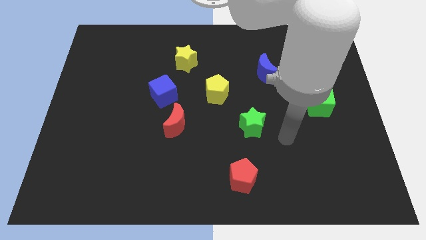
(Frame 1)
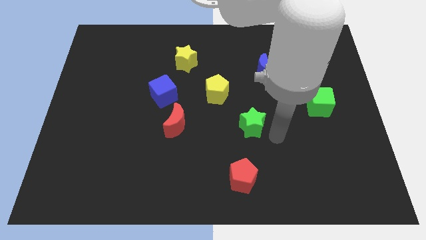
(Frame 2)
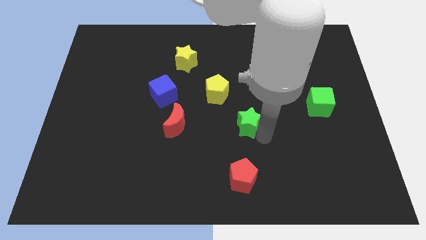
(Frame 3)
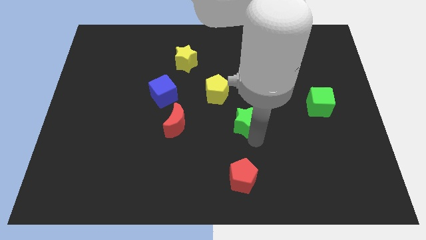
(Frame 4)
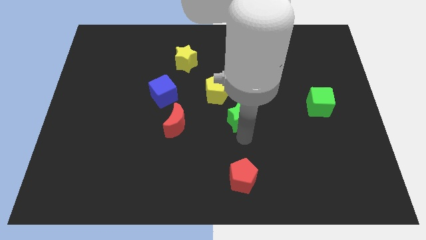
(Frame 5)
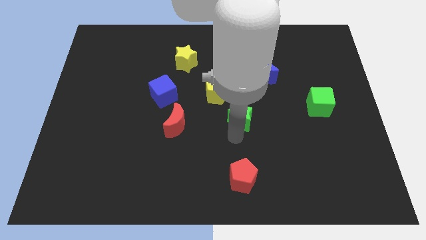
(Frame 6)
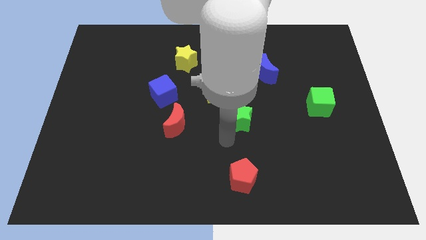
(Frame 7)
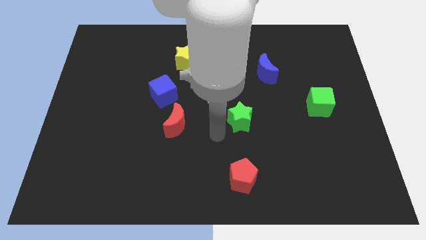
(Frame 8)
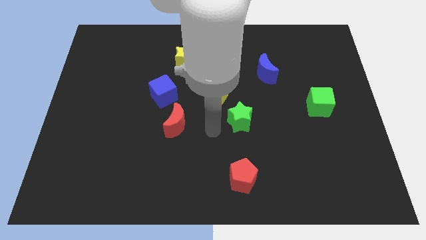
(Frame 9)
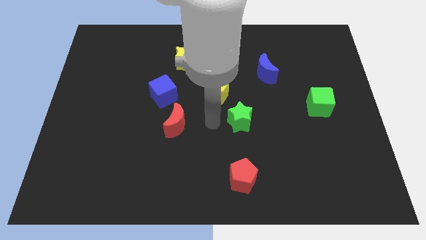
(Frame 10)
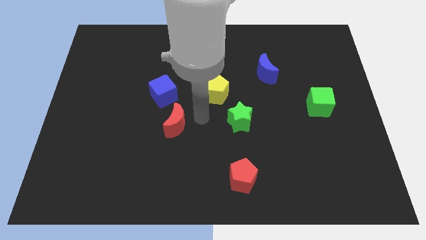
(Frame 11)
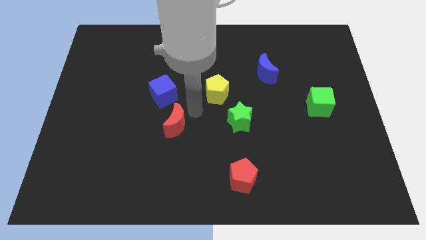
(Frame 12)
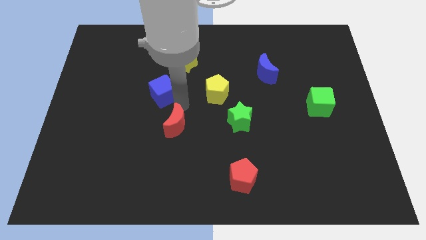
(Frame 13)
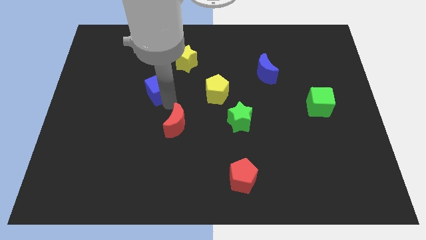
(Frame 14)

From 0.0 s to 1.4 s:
pull the red moon apart from the blue cube

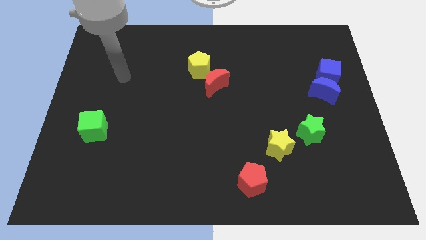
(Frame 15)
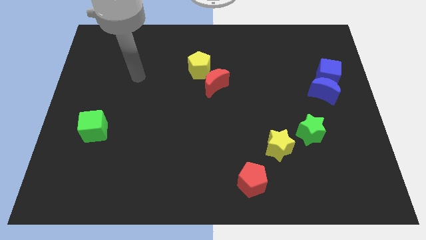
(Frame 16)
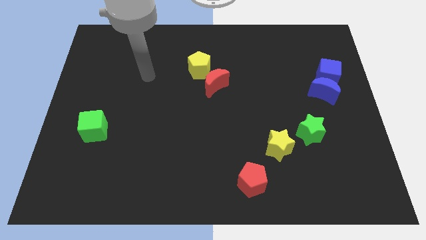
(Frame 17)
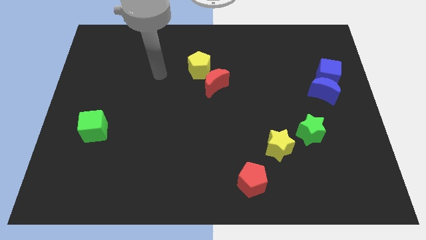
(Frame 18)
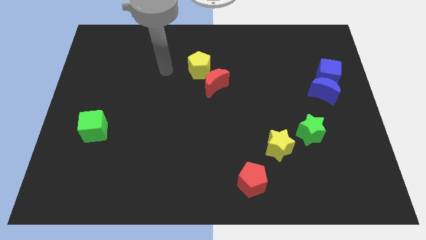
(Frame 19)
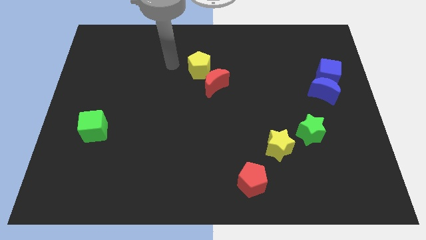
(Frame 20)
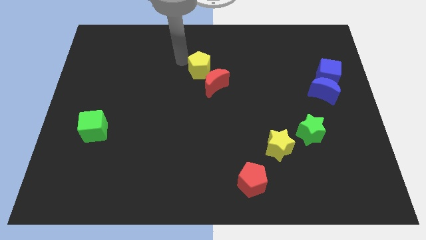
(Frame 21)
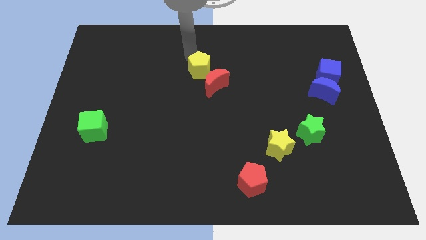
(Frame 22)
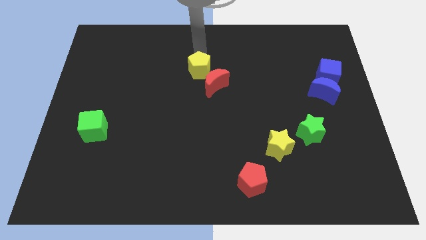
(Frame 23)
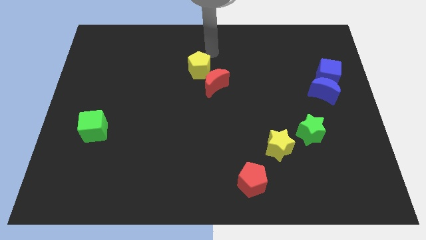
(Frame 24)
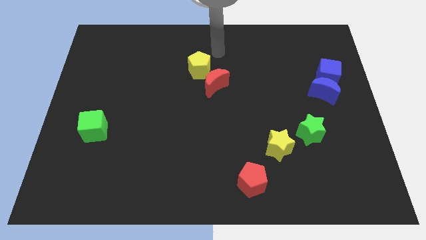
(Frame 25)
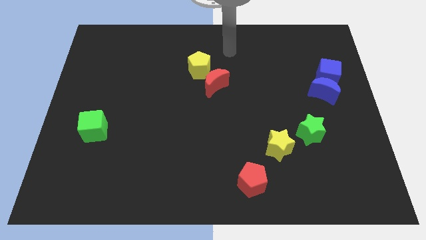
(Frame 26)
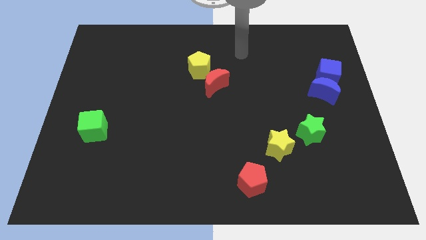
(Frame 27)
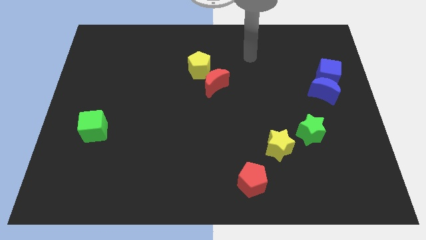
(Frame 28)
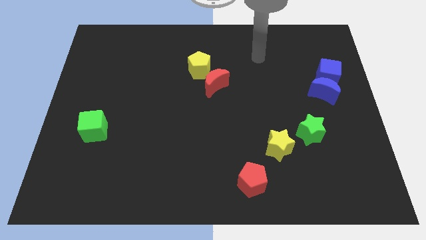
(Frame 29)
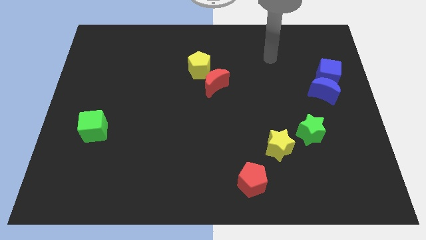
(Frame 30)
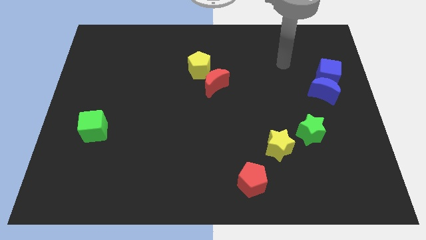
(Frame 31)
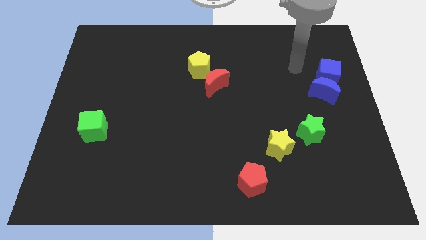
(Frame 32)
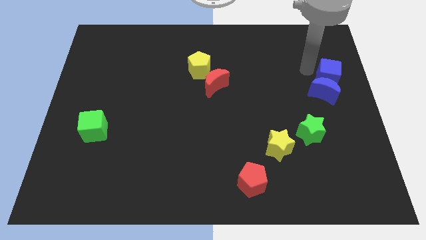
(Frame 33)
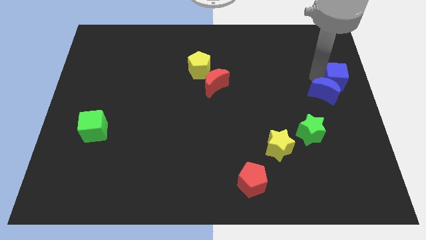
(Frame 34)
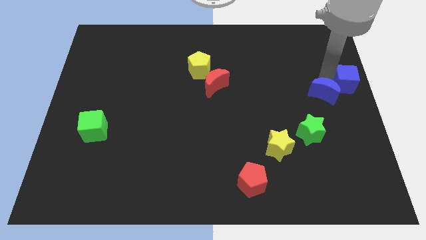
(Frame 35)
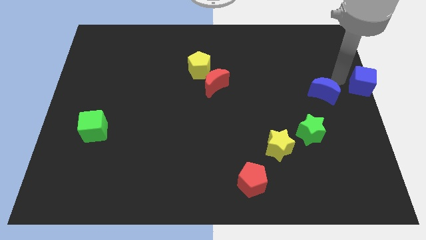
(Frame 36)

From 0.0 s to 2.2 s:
pull the blue moon apart from the blue cube

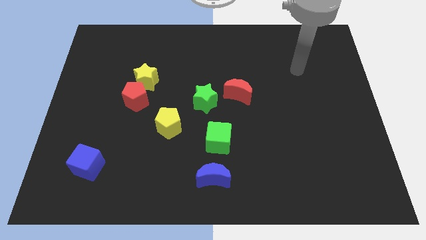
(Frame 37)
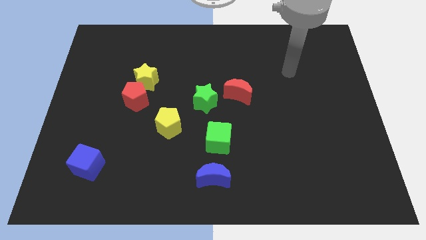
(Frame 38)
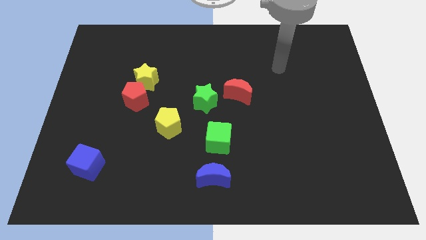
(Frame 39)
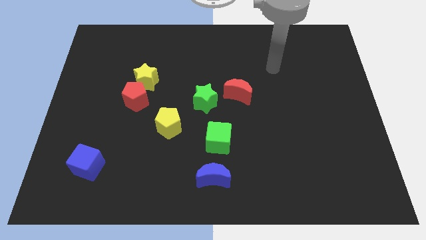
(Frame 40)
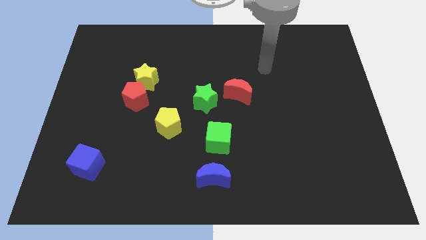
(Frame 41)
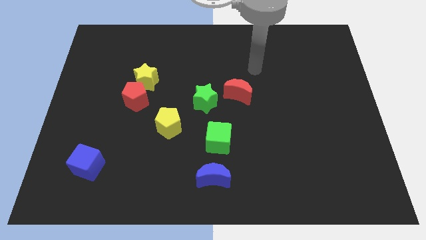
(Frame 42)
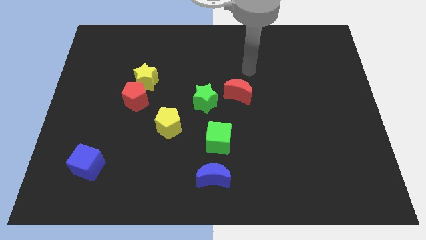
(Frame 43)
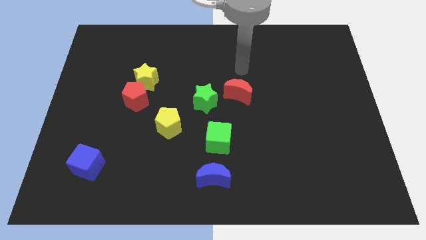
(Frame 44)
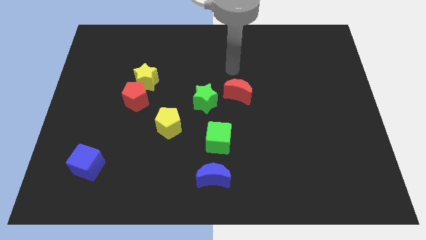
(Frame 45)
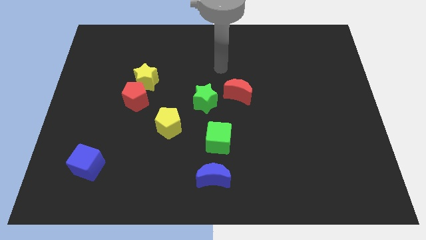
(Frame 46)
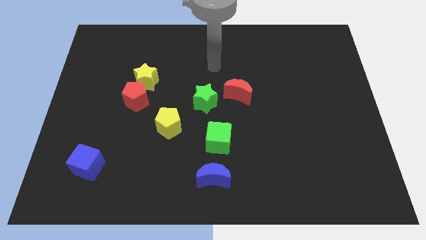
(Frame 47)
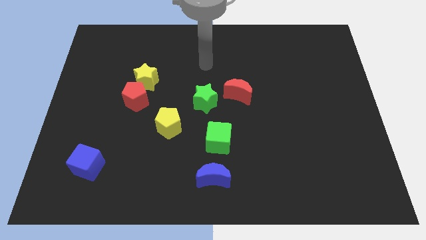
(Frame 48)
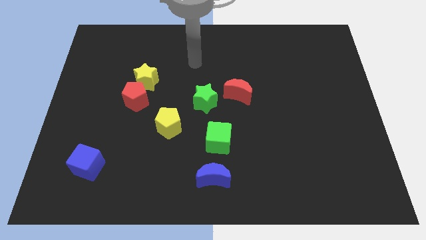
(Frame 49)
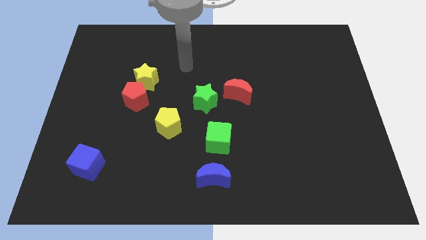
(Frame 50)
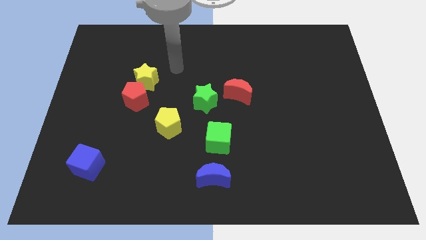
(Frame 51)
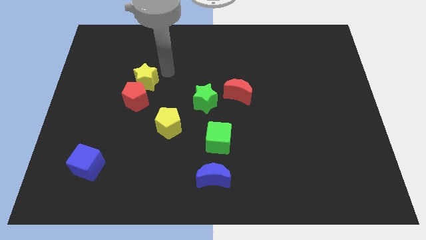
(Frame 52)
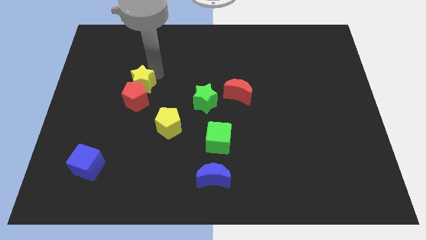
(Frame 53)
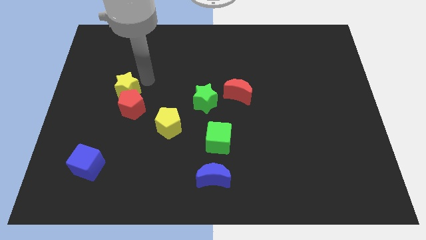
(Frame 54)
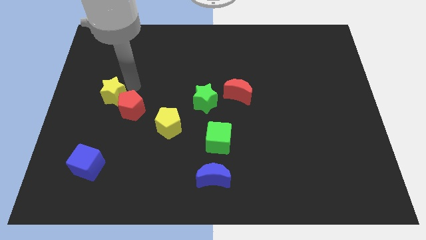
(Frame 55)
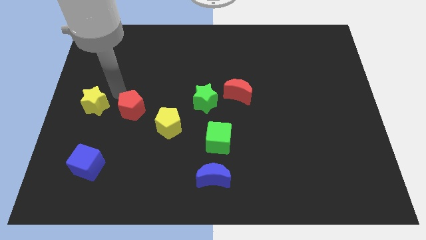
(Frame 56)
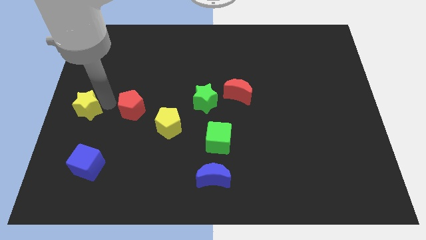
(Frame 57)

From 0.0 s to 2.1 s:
pull the red pentagon apart from the yellow star

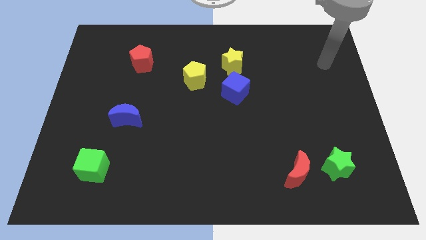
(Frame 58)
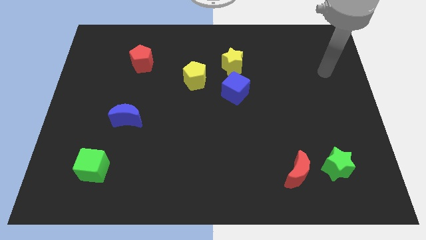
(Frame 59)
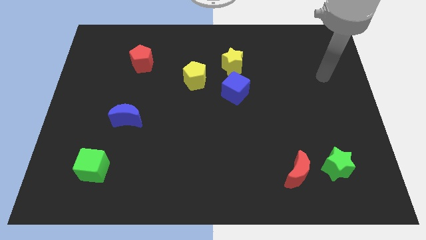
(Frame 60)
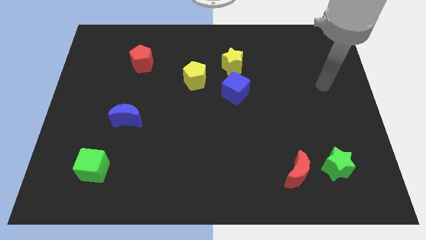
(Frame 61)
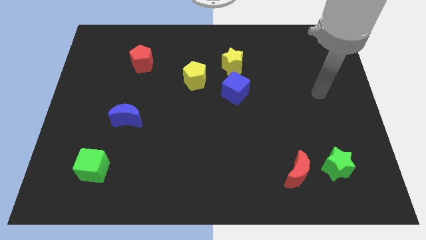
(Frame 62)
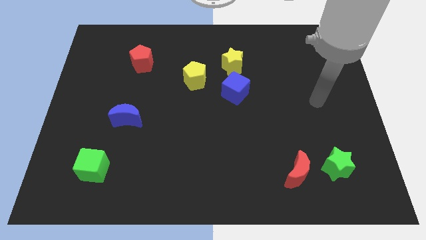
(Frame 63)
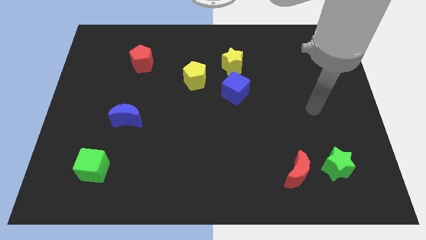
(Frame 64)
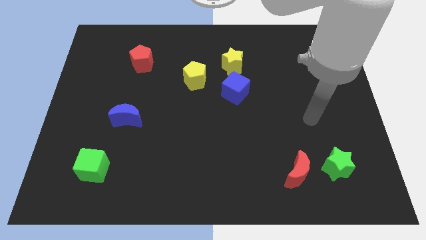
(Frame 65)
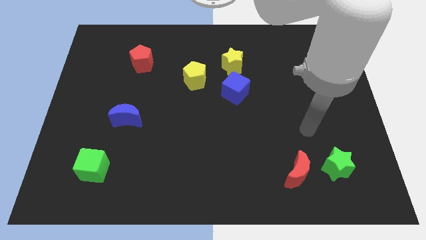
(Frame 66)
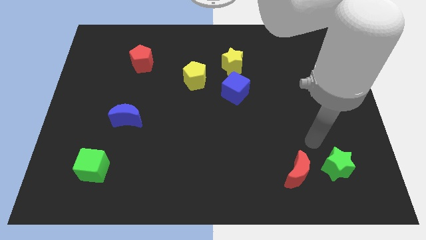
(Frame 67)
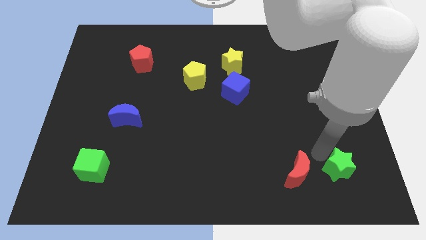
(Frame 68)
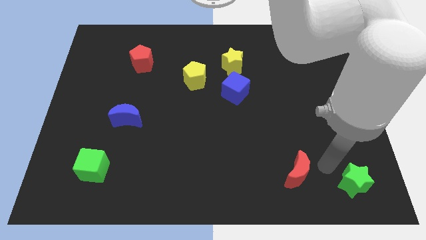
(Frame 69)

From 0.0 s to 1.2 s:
separate the red moon from the green star

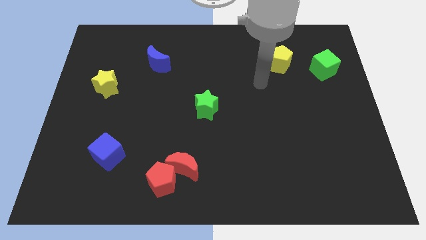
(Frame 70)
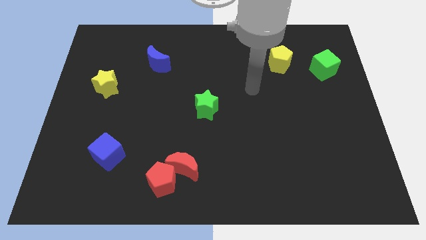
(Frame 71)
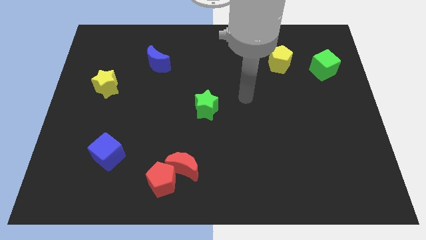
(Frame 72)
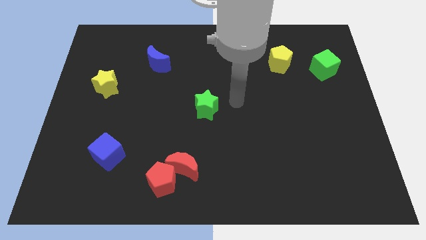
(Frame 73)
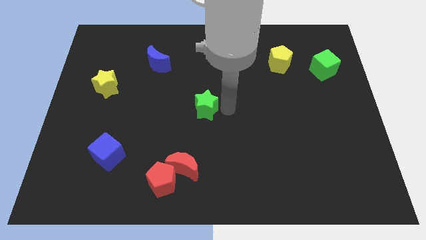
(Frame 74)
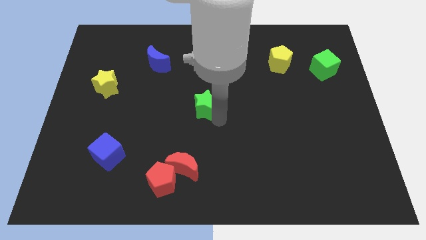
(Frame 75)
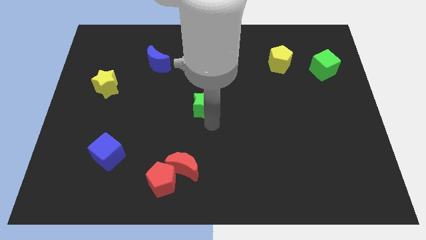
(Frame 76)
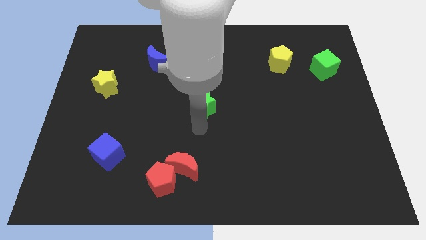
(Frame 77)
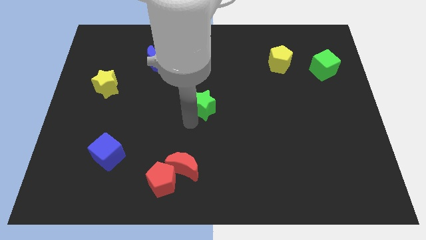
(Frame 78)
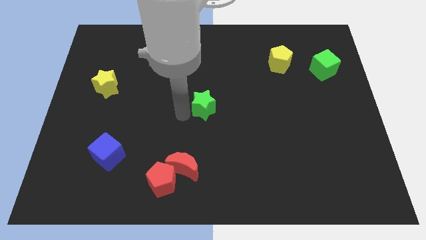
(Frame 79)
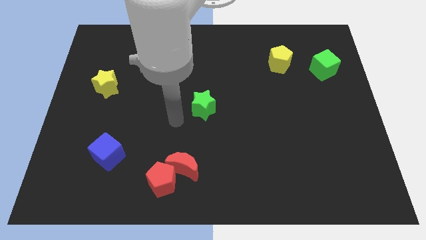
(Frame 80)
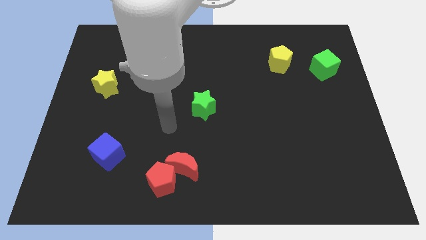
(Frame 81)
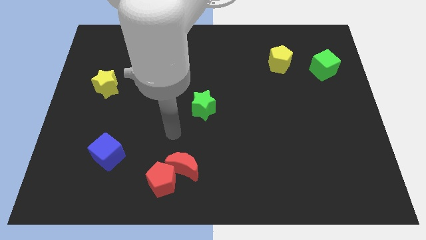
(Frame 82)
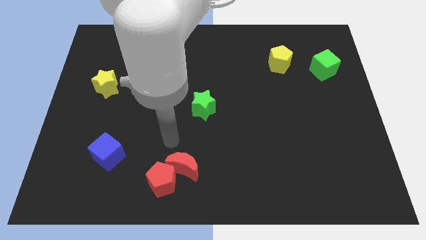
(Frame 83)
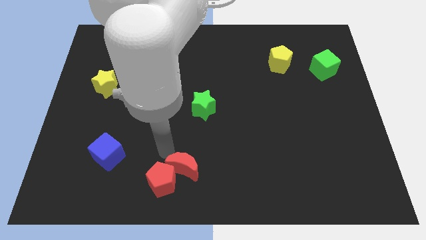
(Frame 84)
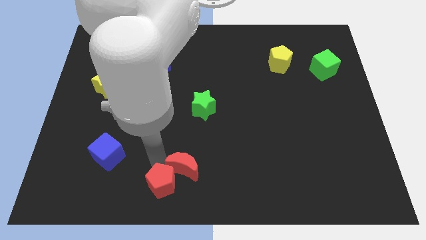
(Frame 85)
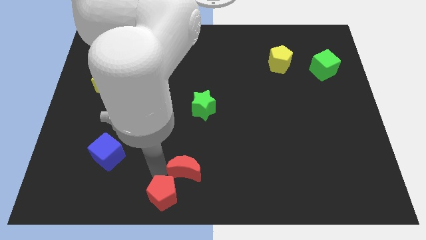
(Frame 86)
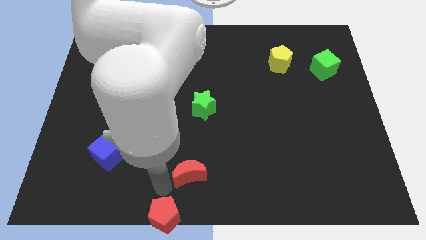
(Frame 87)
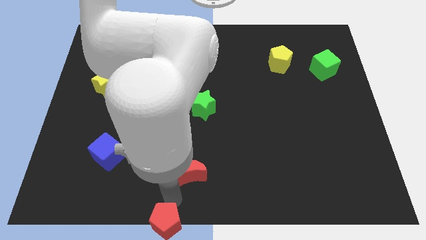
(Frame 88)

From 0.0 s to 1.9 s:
pull the red moon apart from the red pentagon

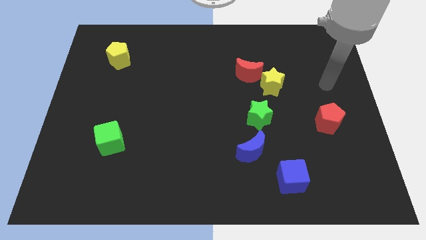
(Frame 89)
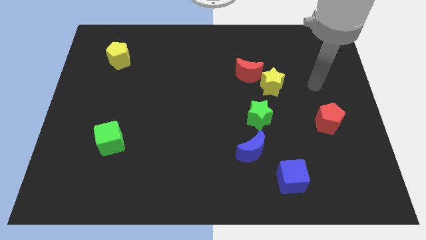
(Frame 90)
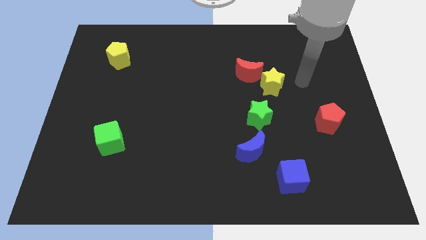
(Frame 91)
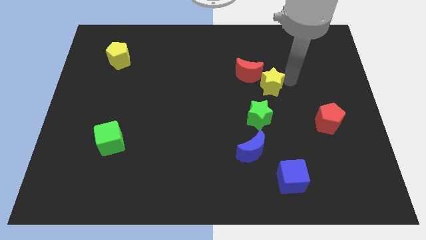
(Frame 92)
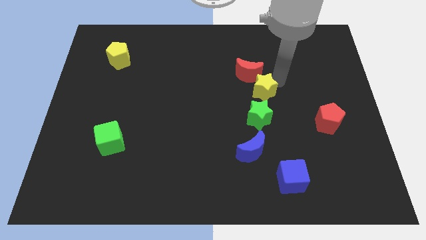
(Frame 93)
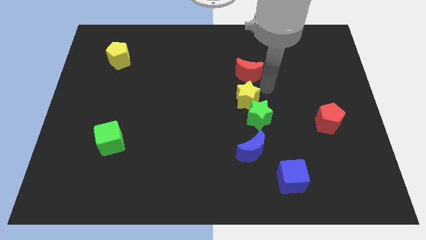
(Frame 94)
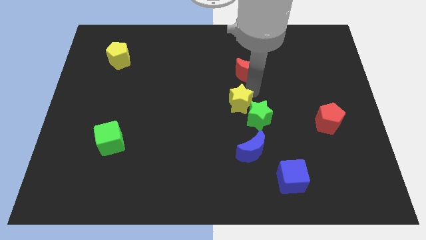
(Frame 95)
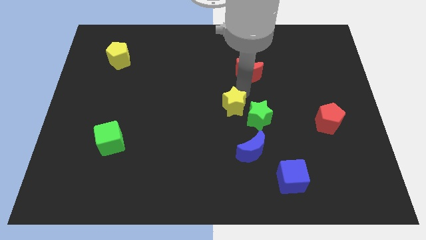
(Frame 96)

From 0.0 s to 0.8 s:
move the red moon away from the yellow star
